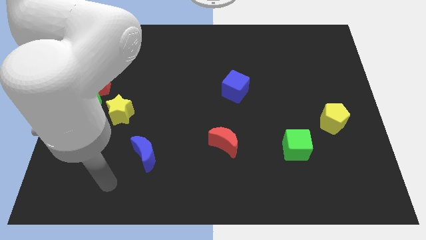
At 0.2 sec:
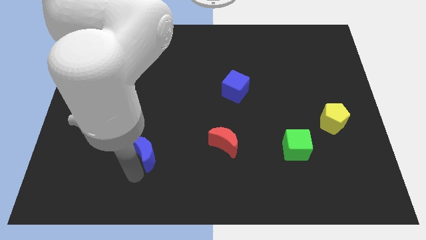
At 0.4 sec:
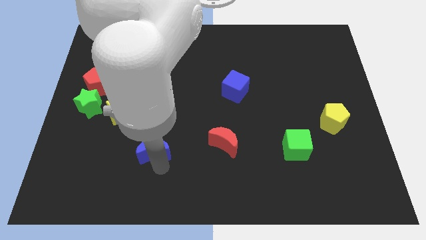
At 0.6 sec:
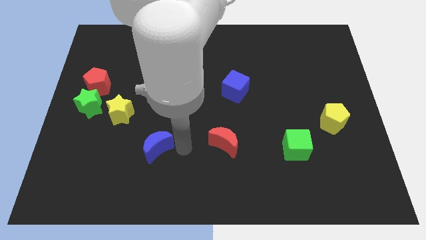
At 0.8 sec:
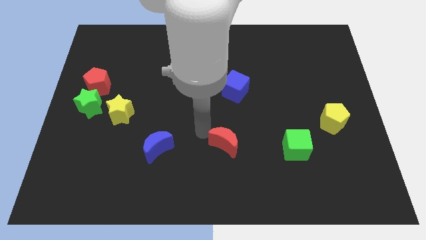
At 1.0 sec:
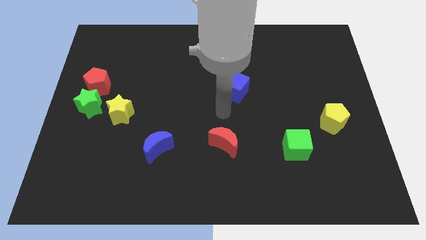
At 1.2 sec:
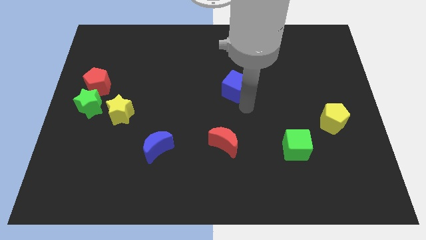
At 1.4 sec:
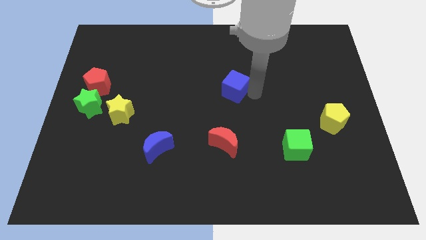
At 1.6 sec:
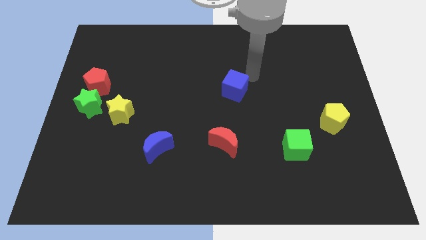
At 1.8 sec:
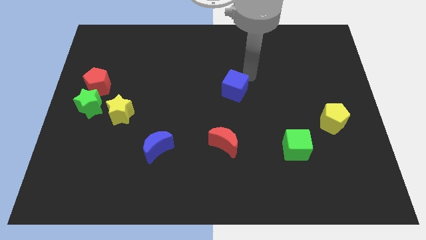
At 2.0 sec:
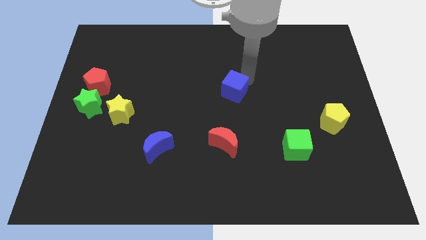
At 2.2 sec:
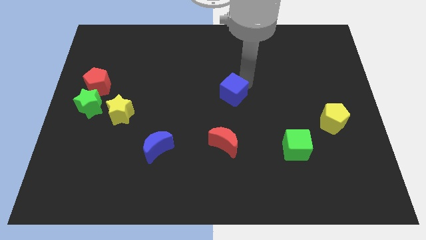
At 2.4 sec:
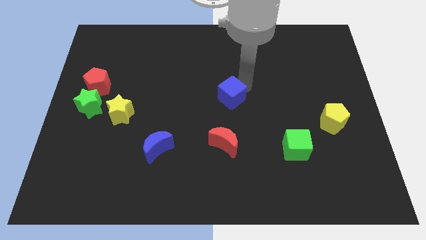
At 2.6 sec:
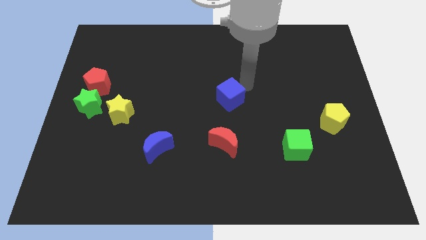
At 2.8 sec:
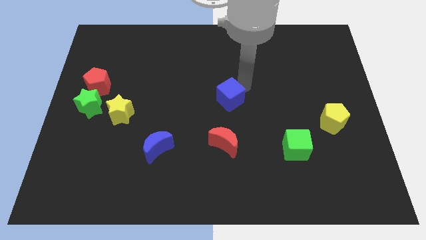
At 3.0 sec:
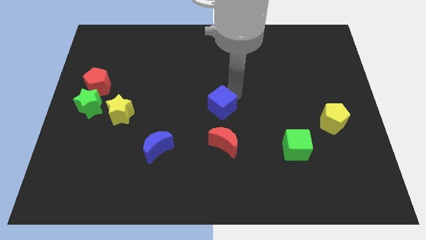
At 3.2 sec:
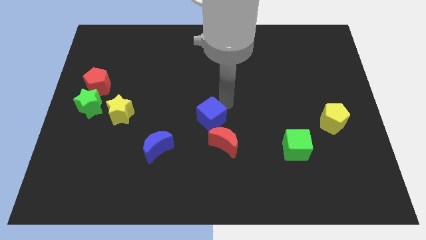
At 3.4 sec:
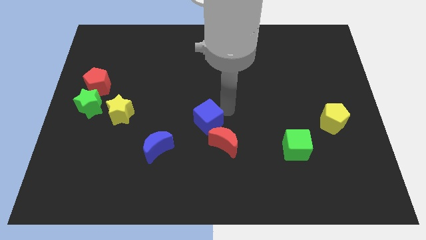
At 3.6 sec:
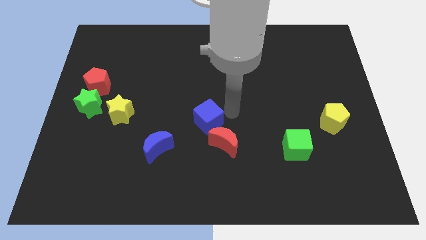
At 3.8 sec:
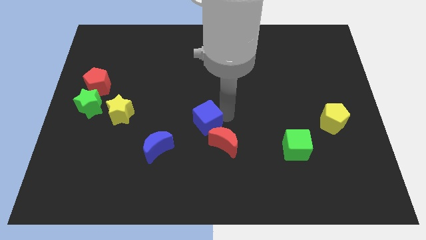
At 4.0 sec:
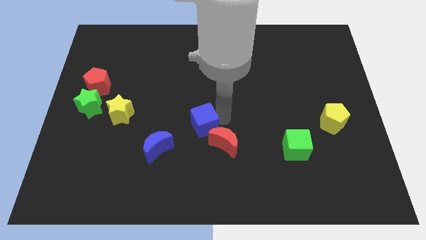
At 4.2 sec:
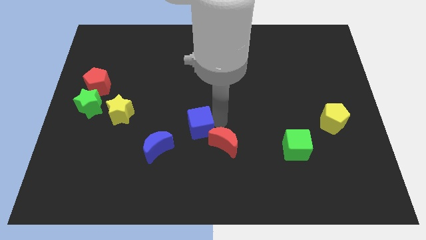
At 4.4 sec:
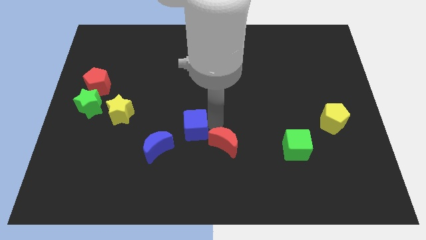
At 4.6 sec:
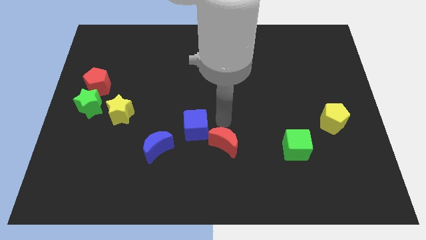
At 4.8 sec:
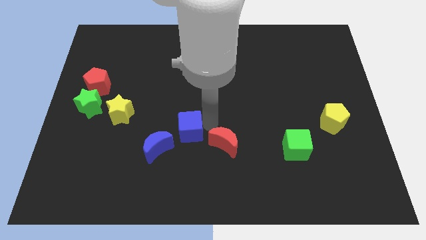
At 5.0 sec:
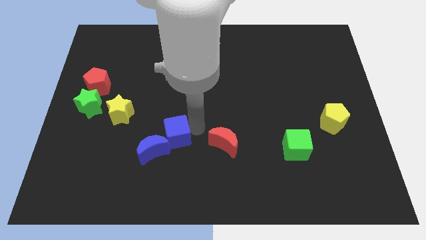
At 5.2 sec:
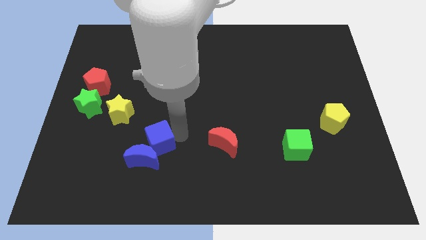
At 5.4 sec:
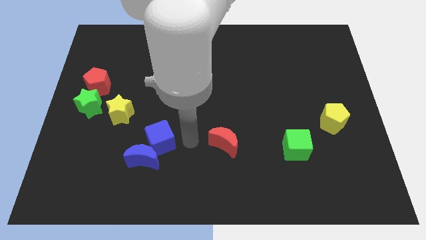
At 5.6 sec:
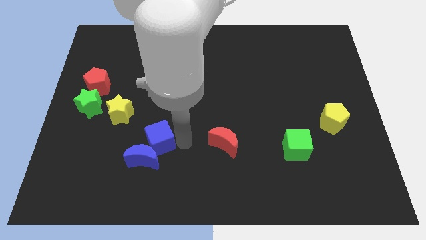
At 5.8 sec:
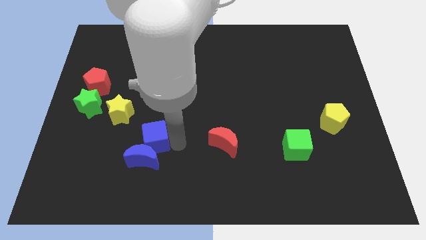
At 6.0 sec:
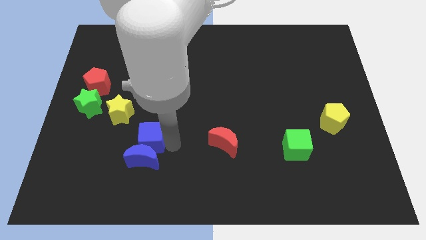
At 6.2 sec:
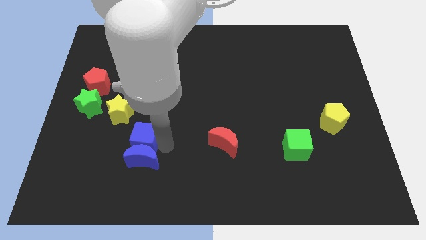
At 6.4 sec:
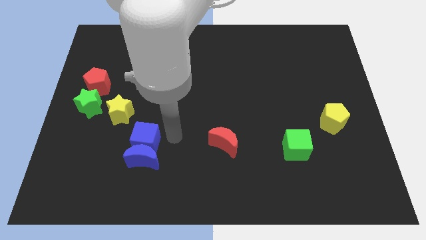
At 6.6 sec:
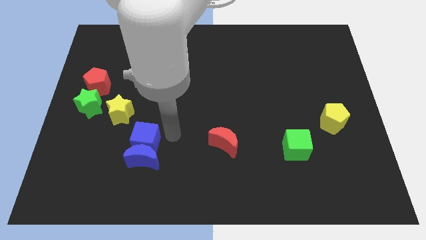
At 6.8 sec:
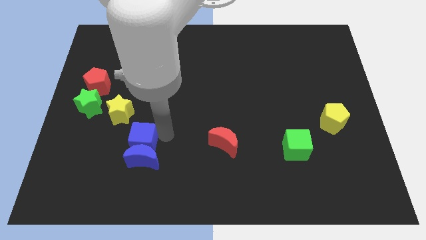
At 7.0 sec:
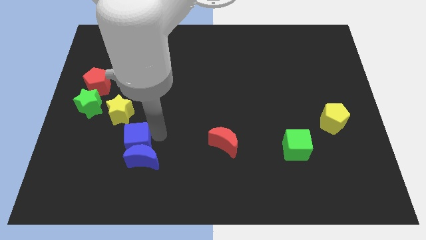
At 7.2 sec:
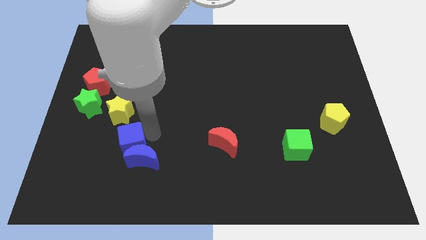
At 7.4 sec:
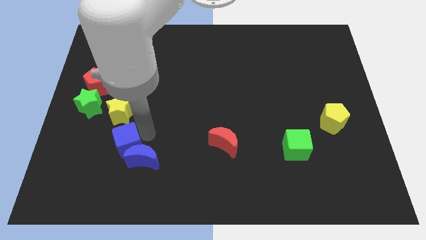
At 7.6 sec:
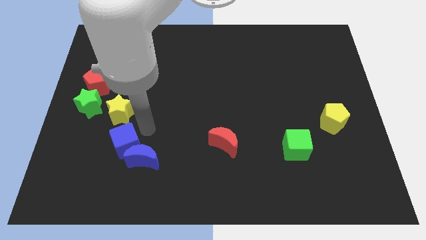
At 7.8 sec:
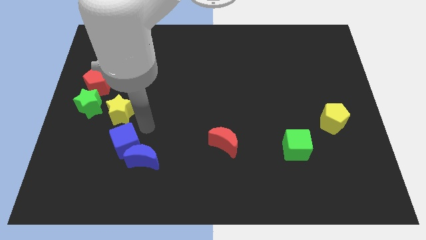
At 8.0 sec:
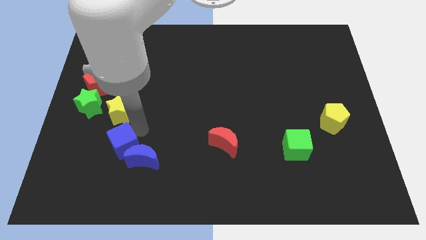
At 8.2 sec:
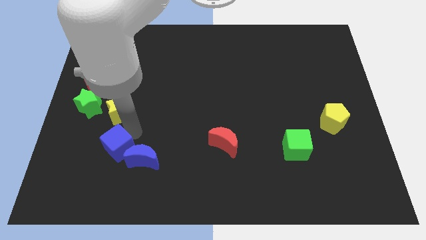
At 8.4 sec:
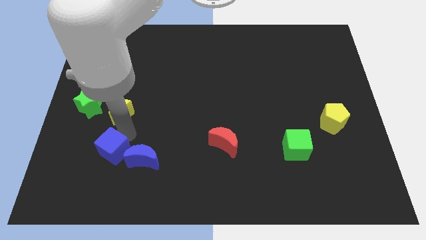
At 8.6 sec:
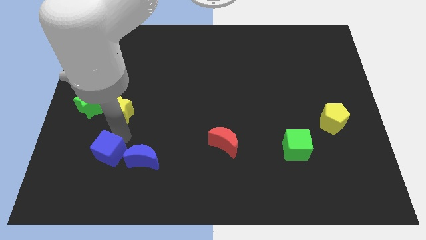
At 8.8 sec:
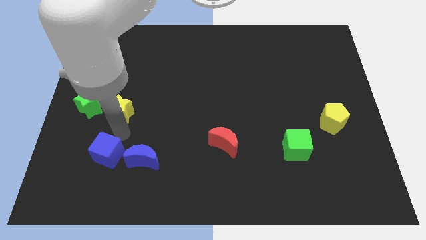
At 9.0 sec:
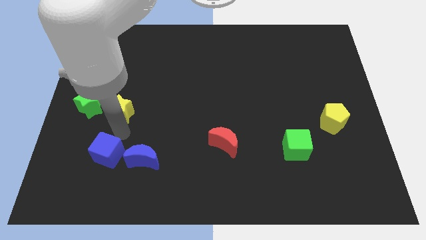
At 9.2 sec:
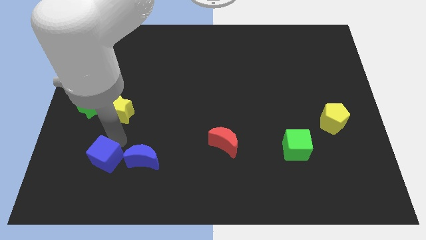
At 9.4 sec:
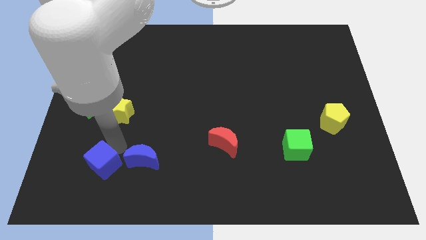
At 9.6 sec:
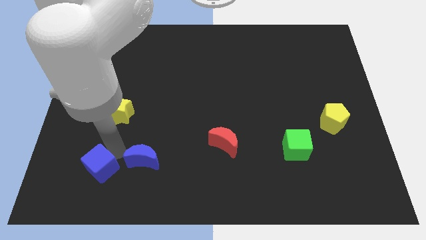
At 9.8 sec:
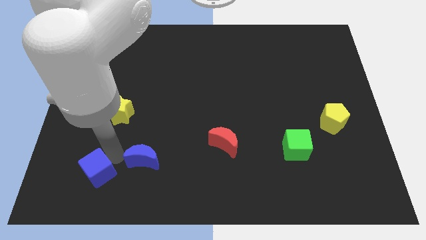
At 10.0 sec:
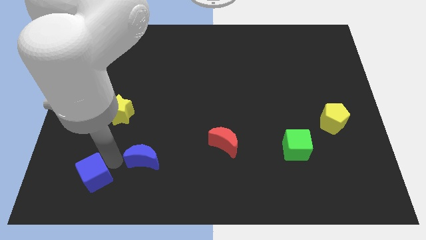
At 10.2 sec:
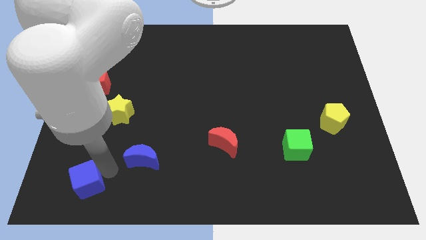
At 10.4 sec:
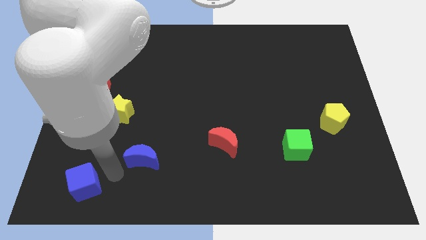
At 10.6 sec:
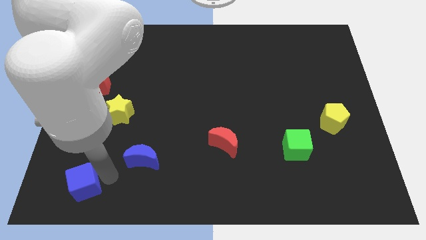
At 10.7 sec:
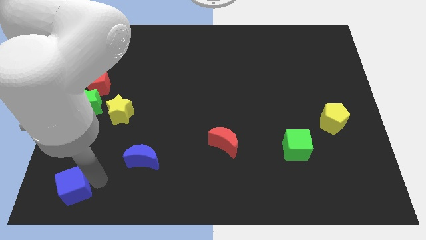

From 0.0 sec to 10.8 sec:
move the blue cube to the bottom left of the board
